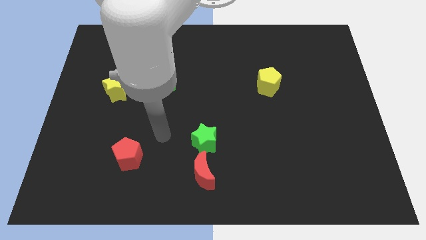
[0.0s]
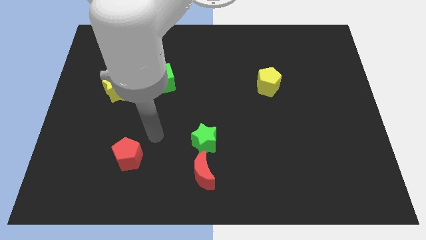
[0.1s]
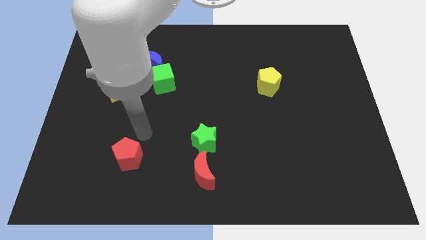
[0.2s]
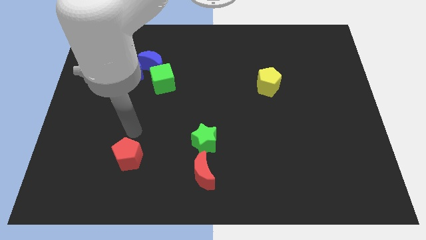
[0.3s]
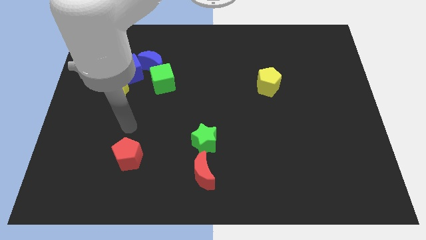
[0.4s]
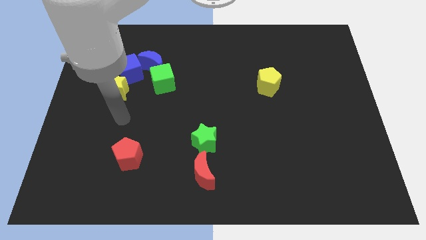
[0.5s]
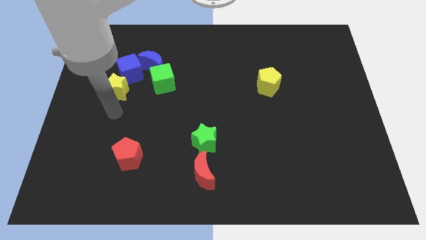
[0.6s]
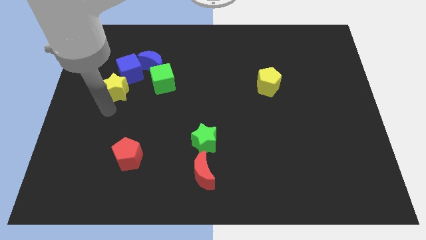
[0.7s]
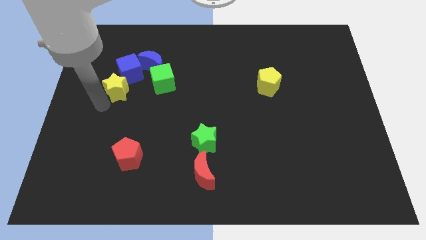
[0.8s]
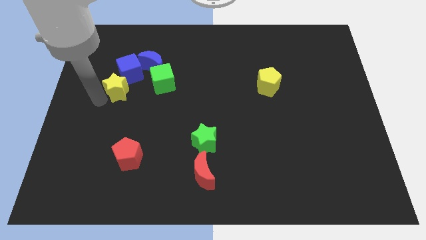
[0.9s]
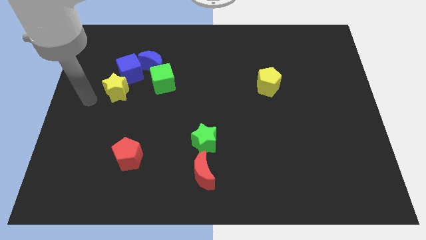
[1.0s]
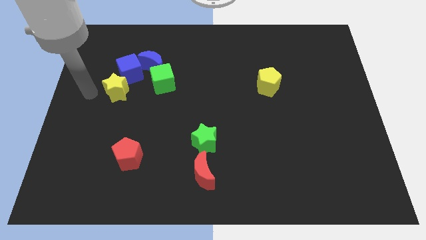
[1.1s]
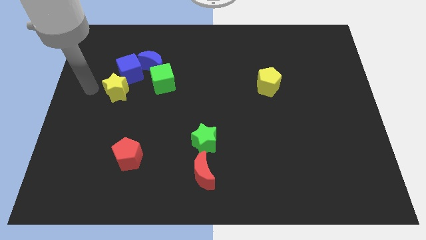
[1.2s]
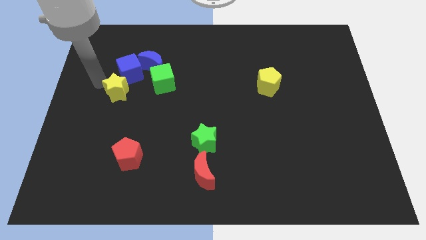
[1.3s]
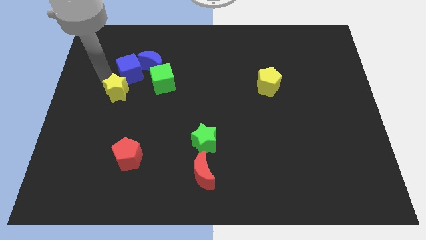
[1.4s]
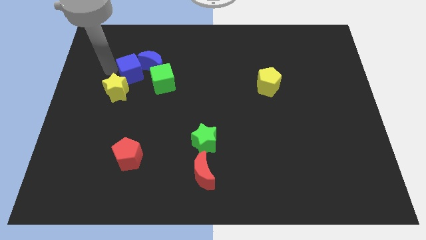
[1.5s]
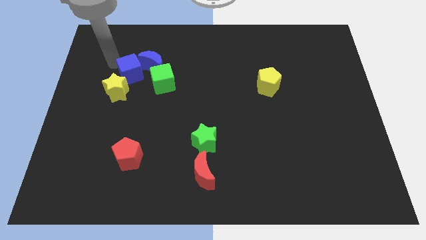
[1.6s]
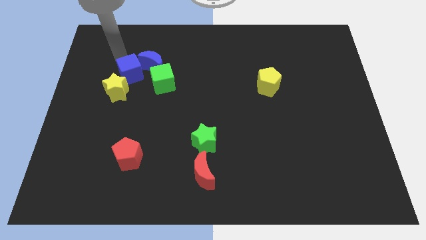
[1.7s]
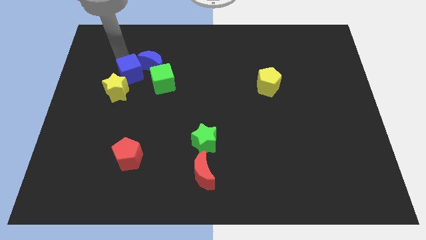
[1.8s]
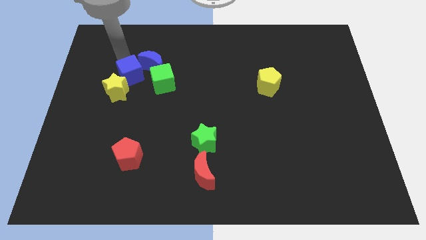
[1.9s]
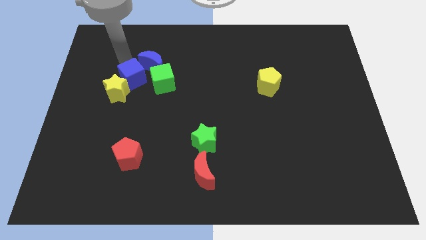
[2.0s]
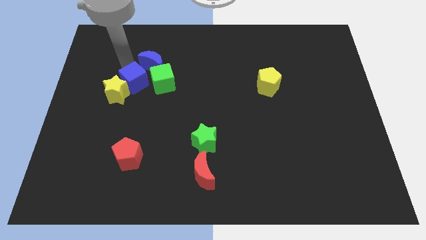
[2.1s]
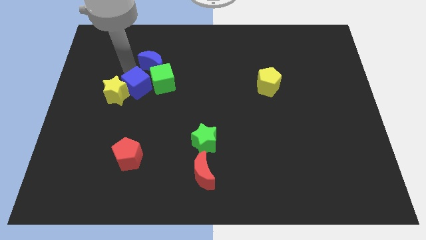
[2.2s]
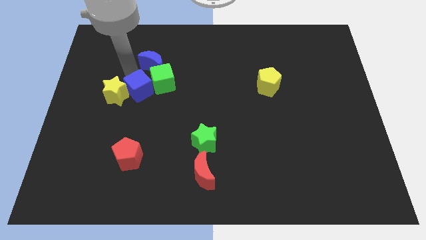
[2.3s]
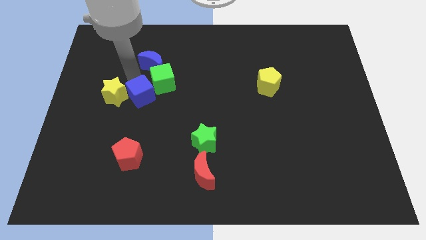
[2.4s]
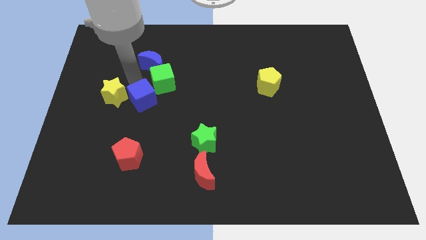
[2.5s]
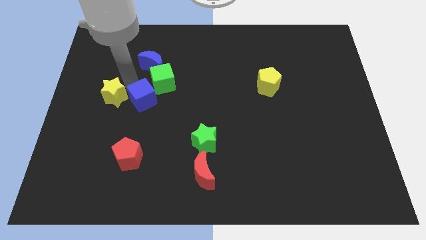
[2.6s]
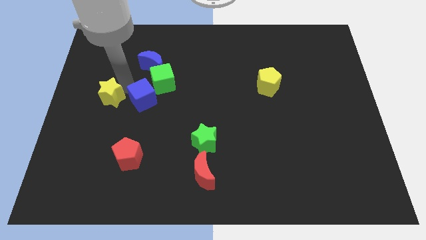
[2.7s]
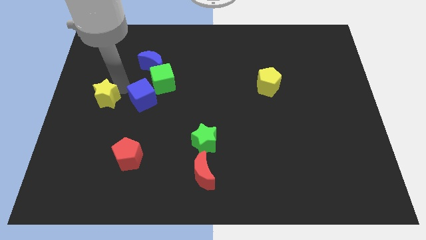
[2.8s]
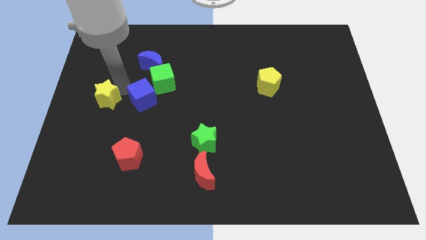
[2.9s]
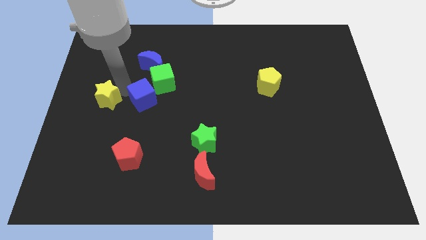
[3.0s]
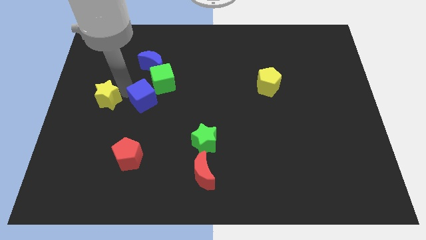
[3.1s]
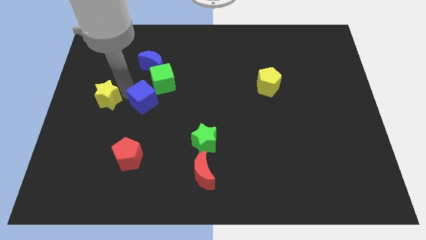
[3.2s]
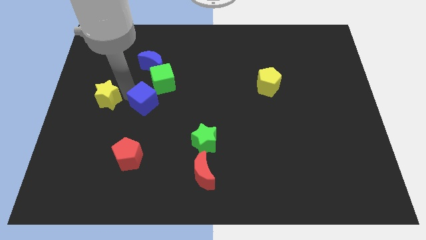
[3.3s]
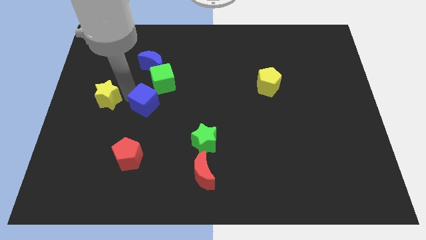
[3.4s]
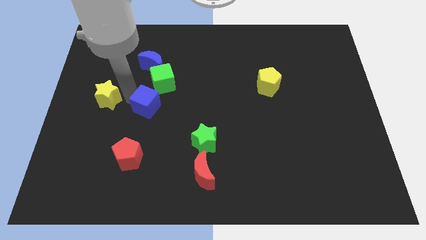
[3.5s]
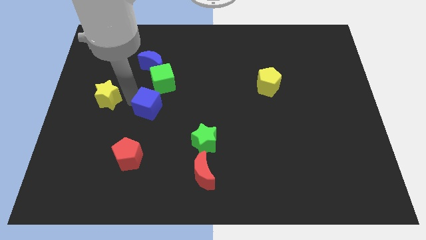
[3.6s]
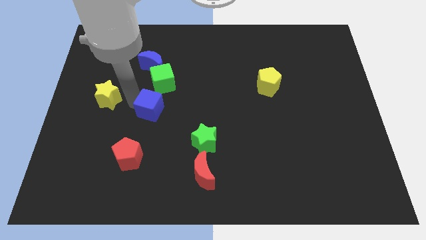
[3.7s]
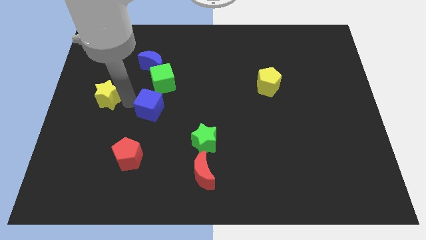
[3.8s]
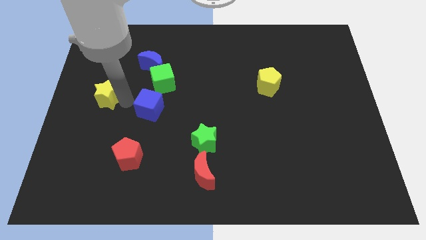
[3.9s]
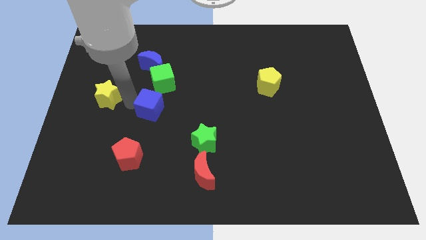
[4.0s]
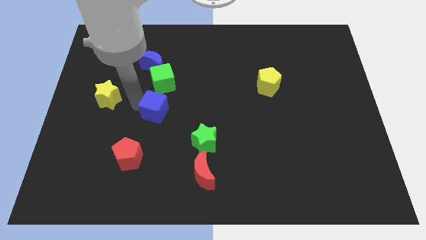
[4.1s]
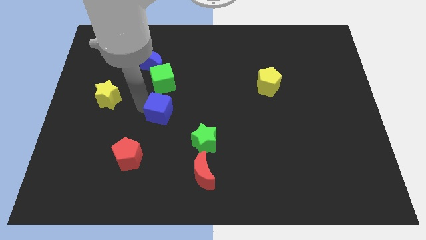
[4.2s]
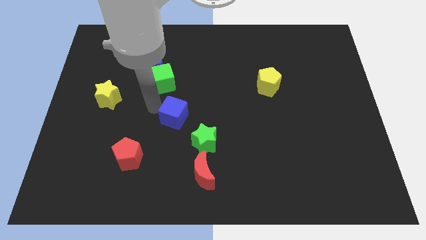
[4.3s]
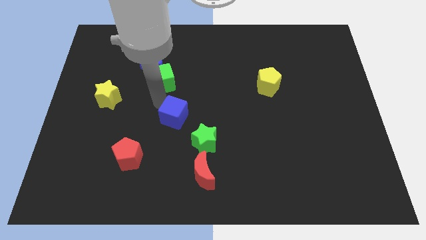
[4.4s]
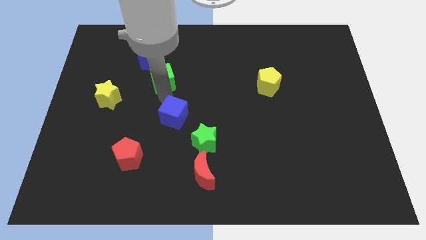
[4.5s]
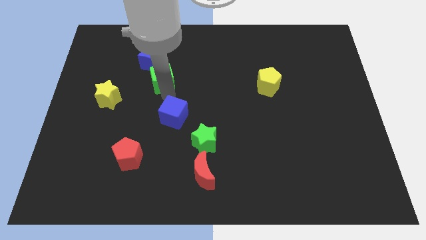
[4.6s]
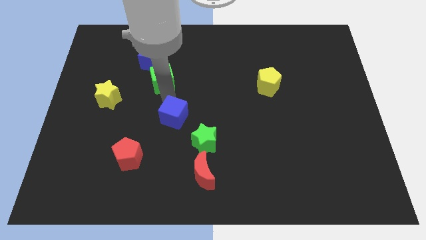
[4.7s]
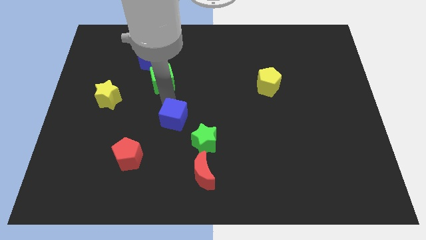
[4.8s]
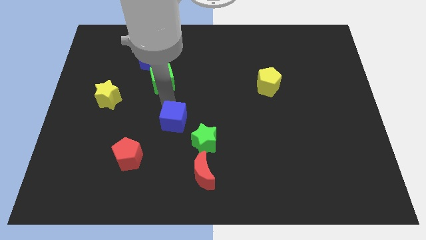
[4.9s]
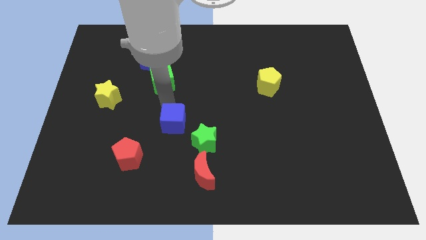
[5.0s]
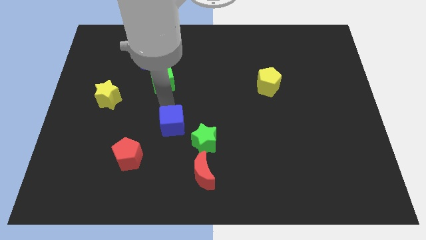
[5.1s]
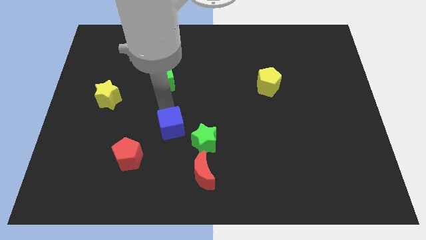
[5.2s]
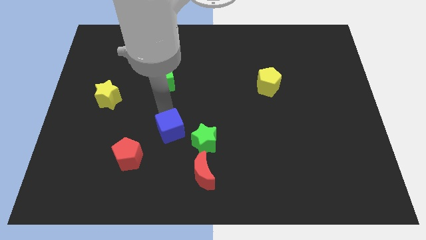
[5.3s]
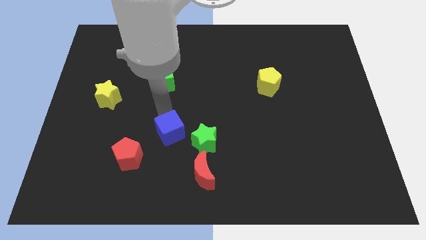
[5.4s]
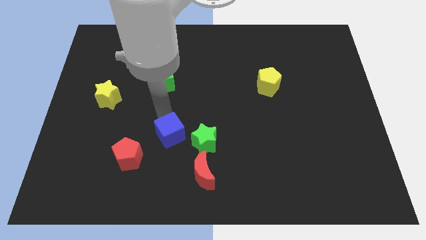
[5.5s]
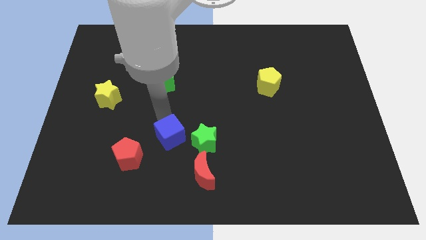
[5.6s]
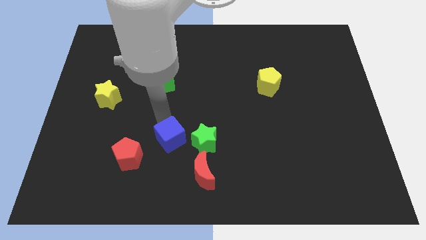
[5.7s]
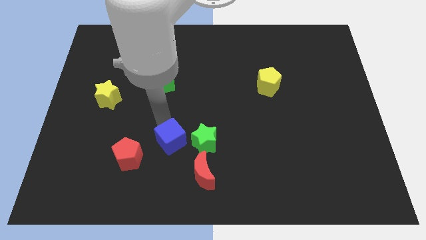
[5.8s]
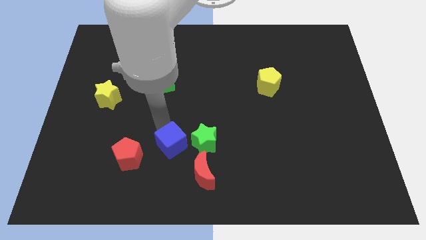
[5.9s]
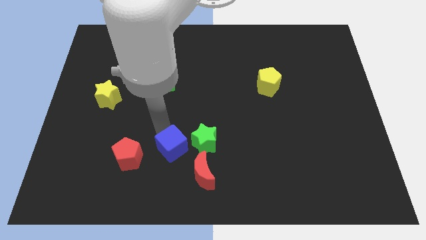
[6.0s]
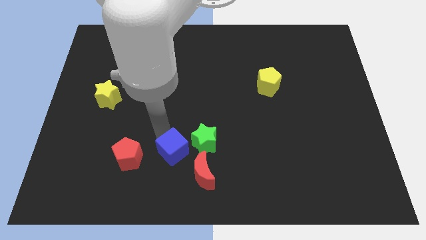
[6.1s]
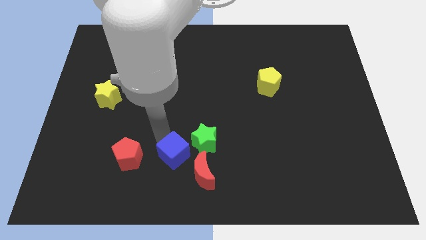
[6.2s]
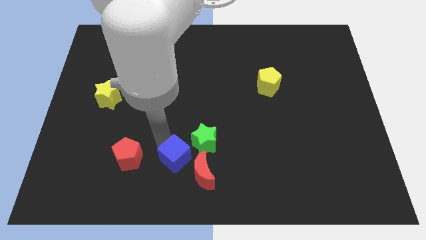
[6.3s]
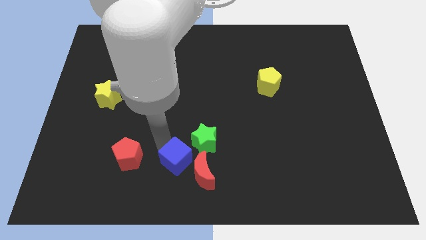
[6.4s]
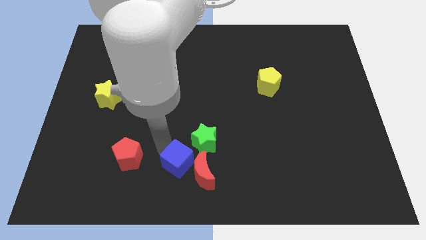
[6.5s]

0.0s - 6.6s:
move the blue cube close to the red moon
